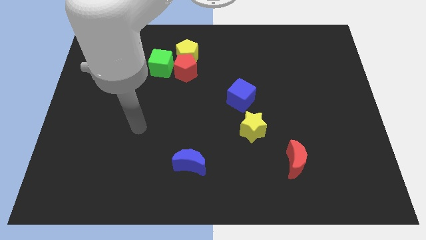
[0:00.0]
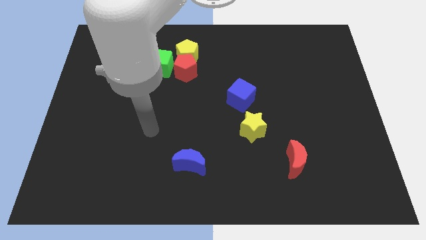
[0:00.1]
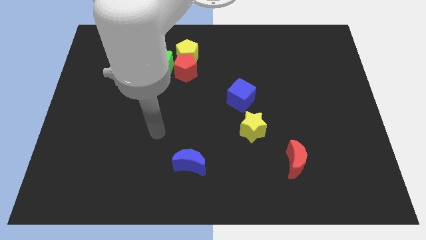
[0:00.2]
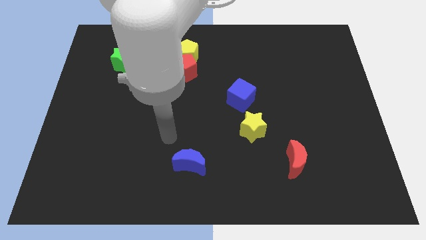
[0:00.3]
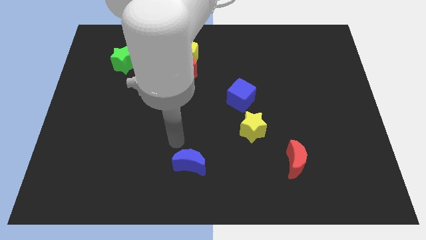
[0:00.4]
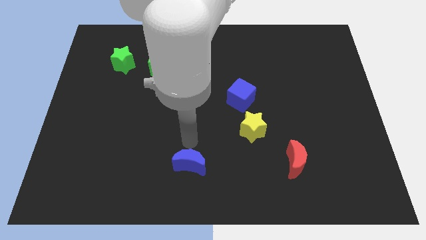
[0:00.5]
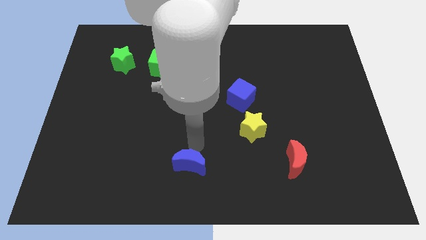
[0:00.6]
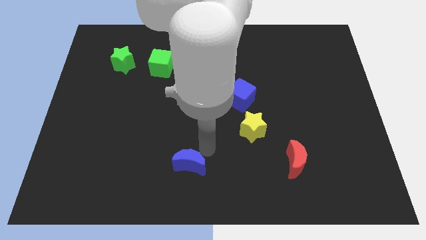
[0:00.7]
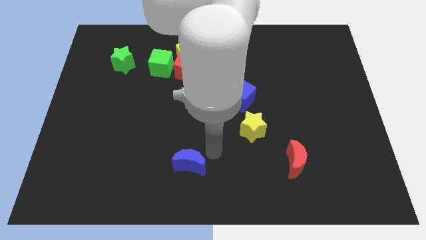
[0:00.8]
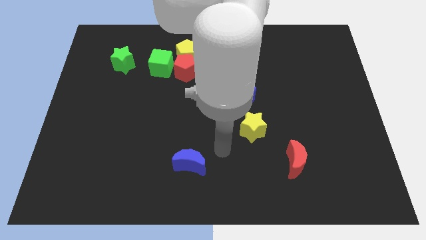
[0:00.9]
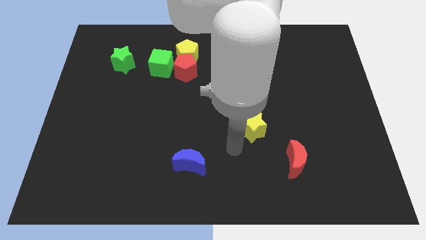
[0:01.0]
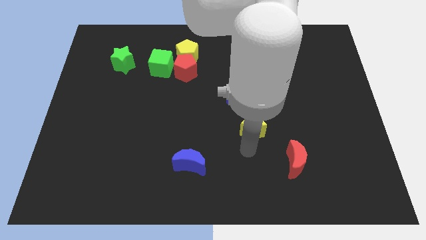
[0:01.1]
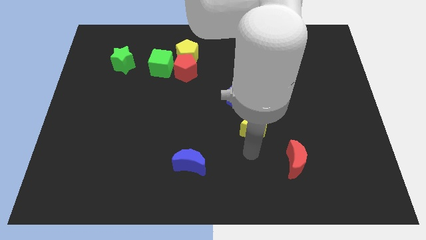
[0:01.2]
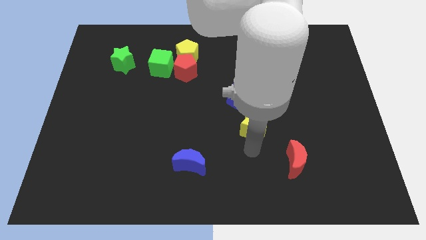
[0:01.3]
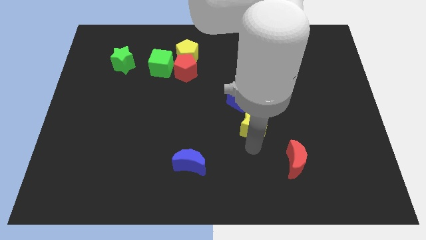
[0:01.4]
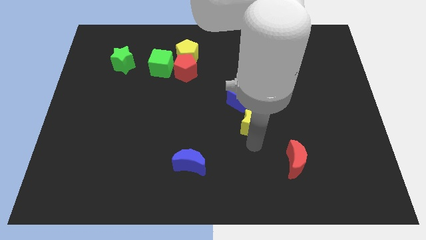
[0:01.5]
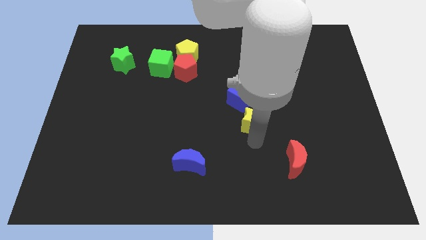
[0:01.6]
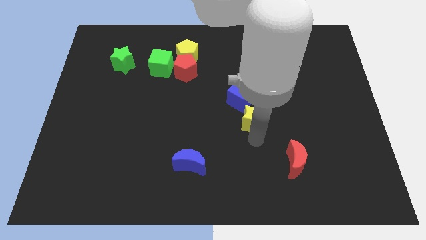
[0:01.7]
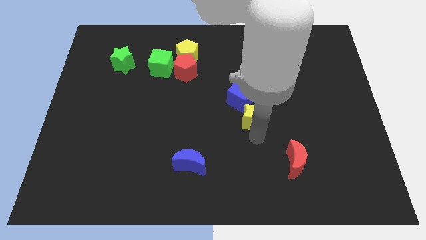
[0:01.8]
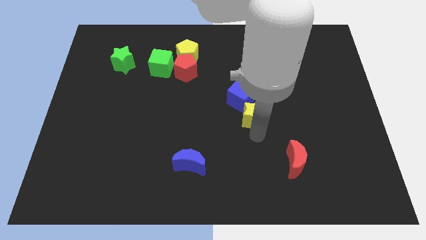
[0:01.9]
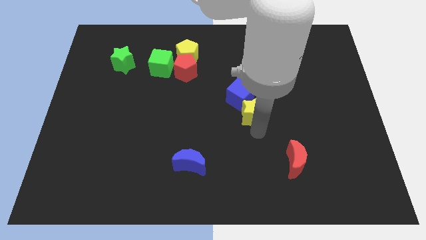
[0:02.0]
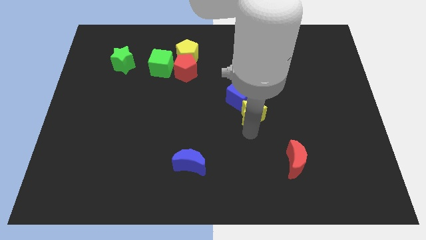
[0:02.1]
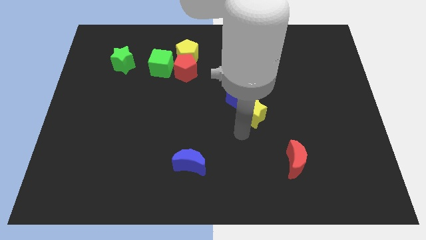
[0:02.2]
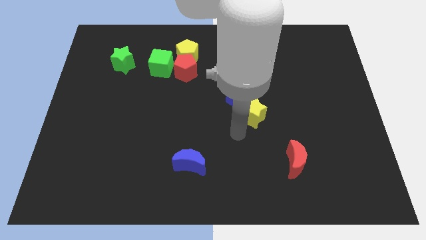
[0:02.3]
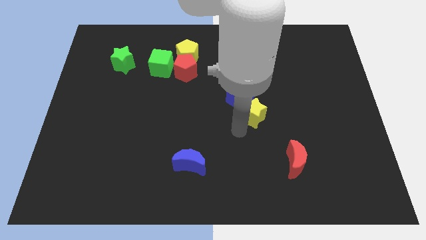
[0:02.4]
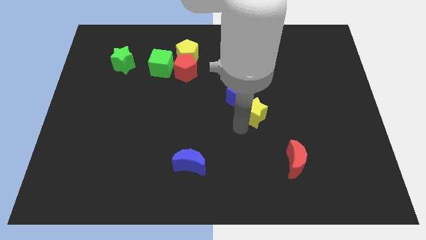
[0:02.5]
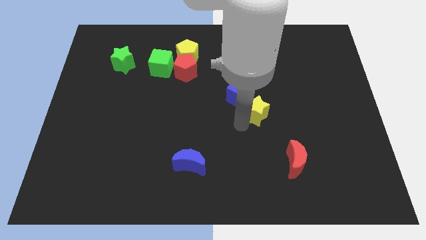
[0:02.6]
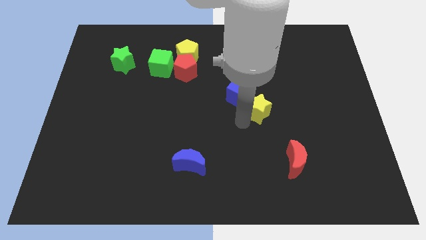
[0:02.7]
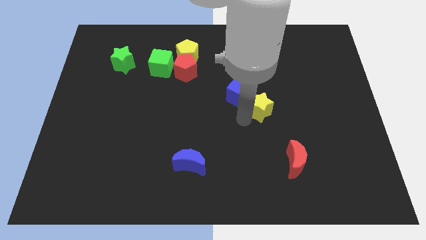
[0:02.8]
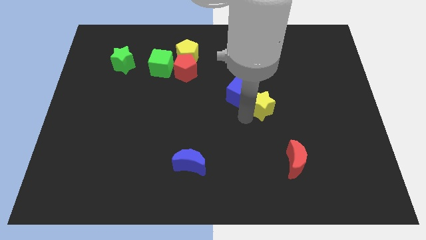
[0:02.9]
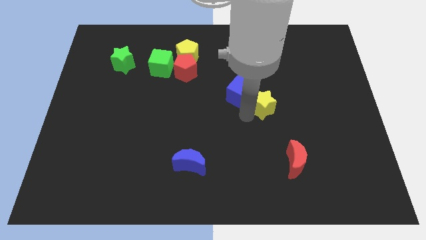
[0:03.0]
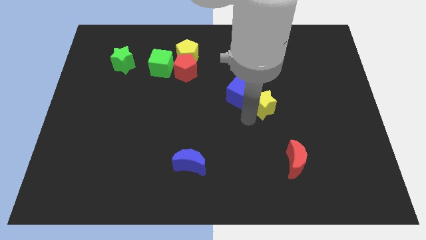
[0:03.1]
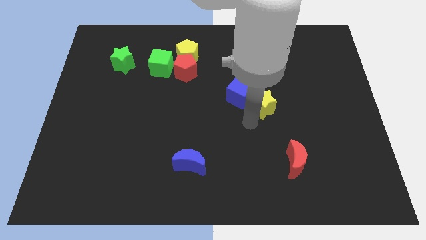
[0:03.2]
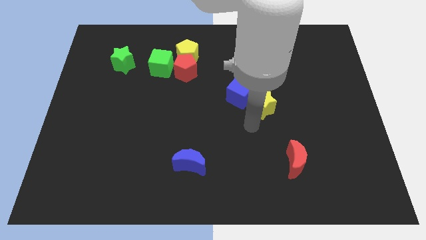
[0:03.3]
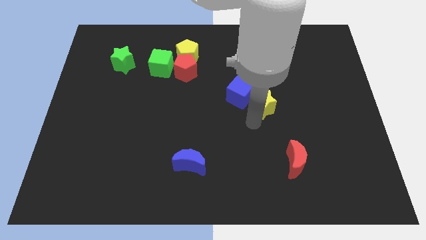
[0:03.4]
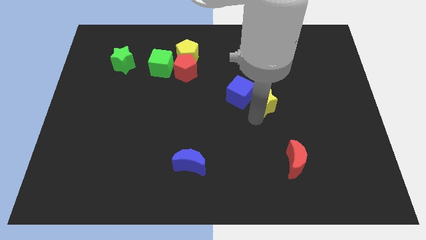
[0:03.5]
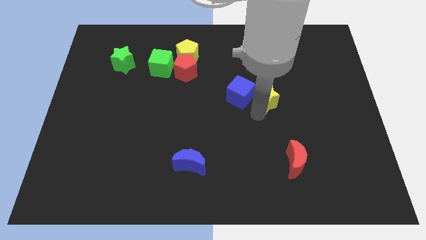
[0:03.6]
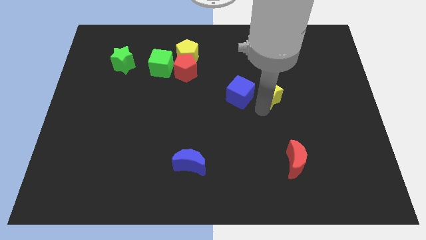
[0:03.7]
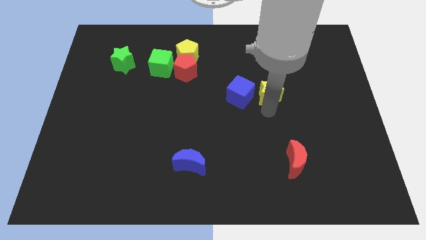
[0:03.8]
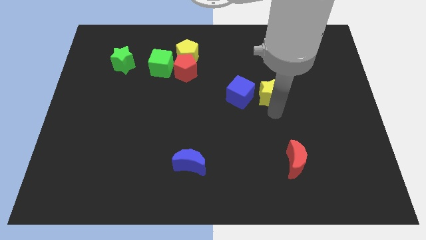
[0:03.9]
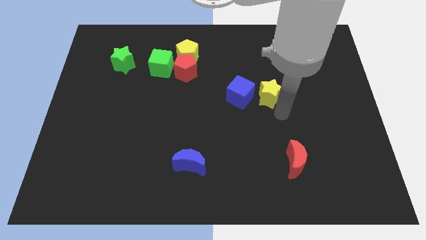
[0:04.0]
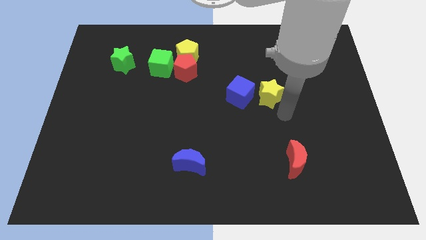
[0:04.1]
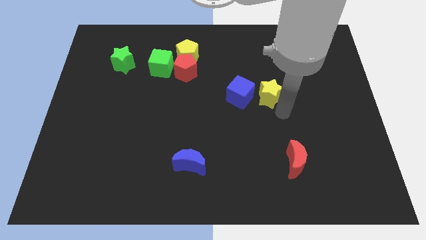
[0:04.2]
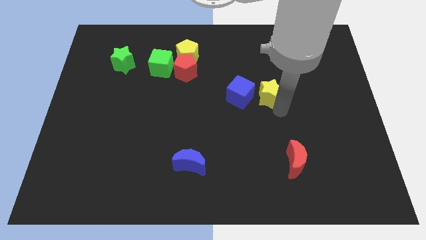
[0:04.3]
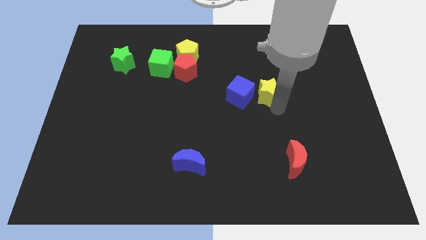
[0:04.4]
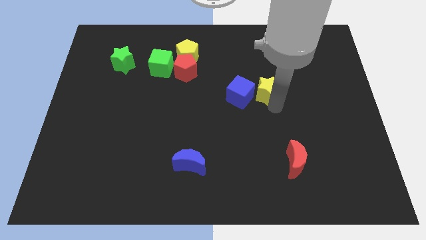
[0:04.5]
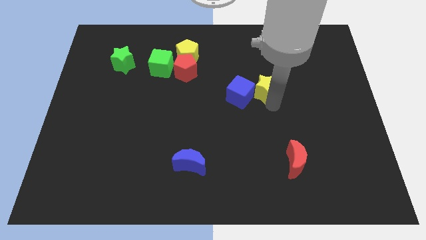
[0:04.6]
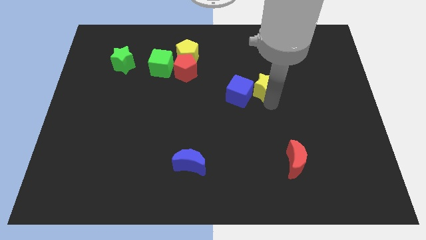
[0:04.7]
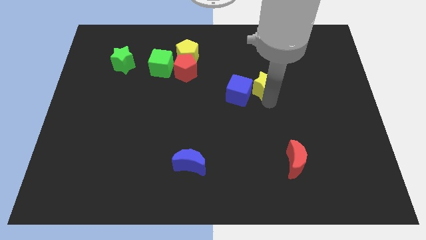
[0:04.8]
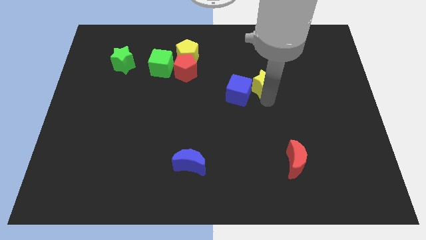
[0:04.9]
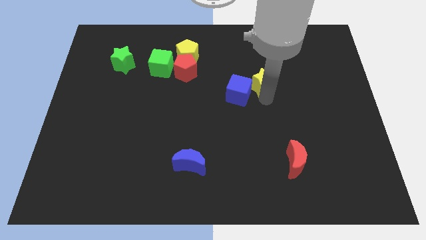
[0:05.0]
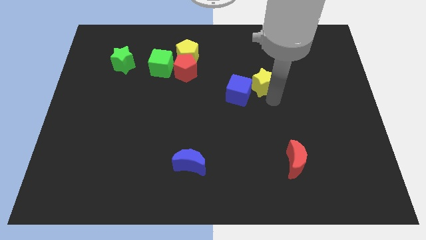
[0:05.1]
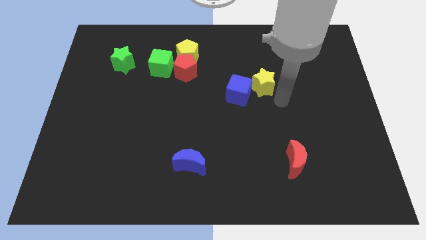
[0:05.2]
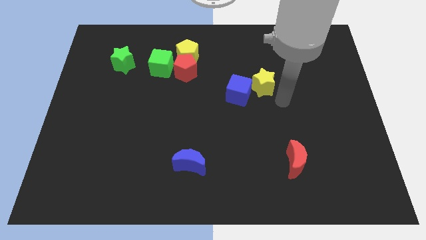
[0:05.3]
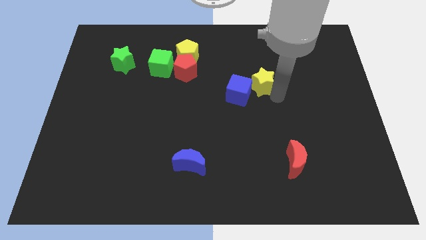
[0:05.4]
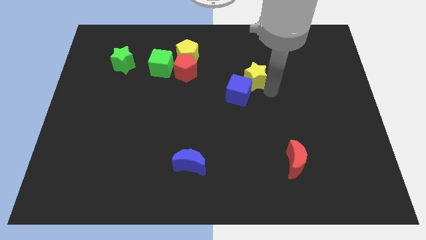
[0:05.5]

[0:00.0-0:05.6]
slide the yellow star to the top side of the blue cube

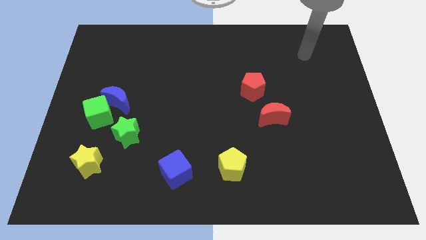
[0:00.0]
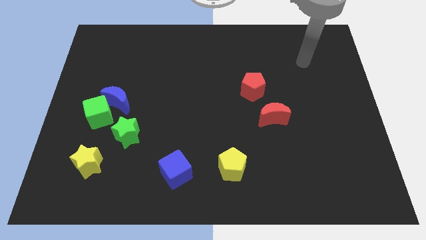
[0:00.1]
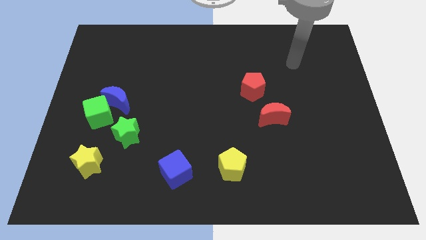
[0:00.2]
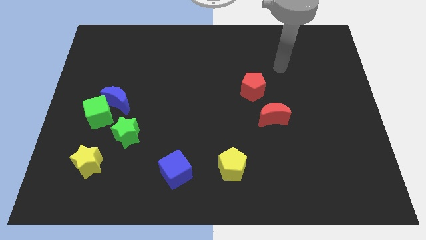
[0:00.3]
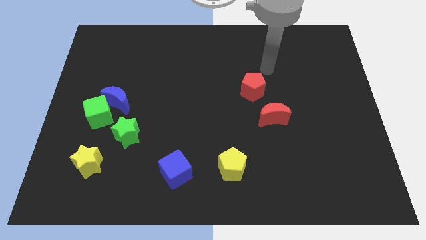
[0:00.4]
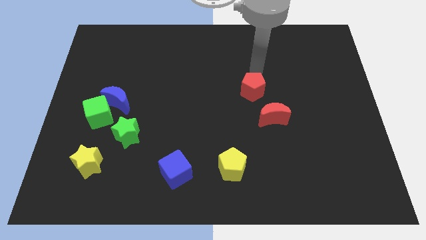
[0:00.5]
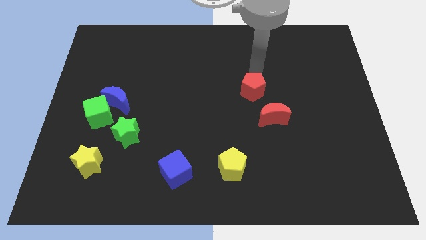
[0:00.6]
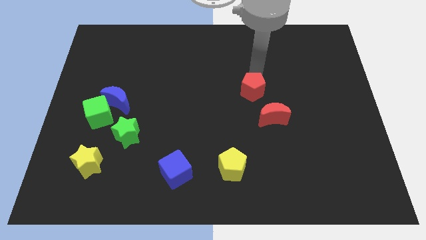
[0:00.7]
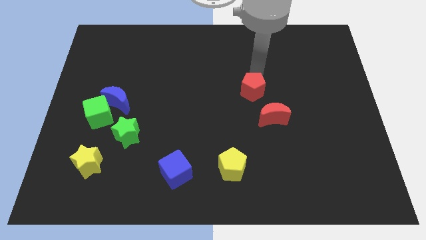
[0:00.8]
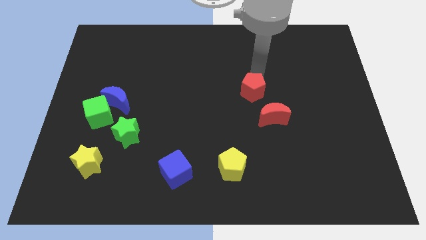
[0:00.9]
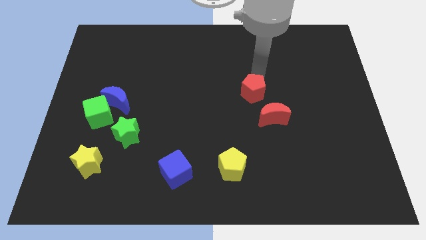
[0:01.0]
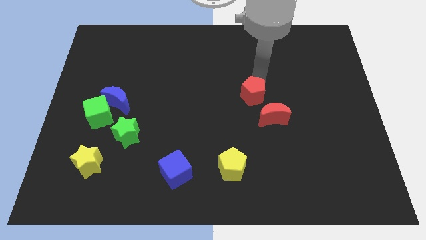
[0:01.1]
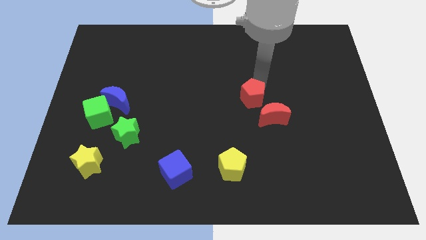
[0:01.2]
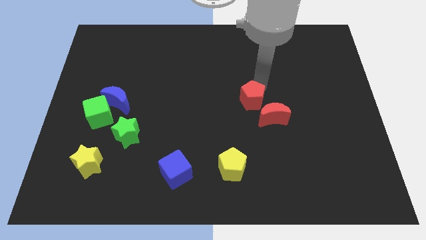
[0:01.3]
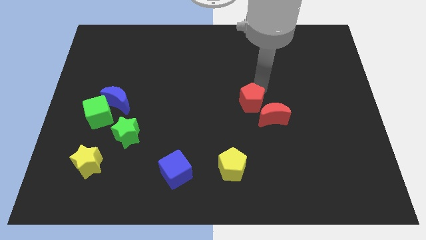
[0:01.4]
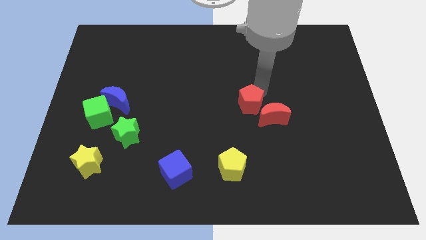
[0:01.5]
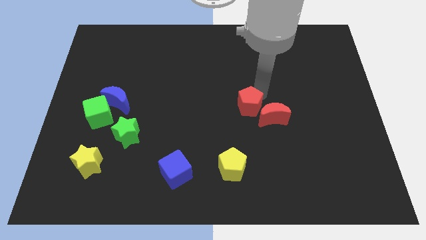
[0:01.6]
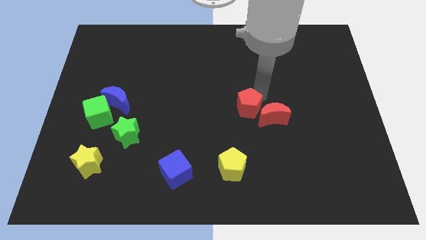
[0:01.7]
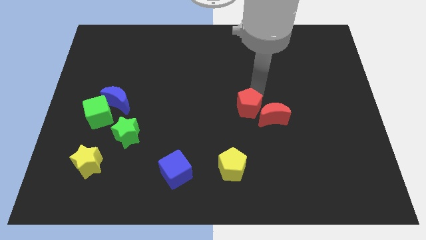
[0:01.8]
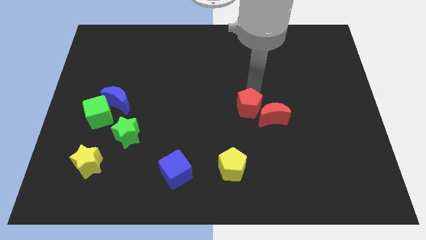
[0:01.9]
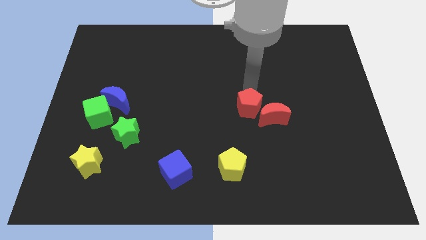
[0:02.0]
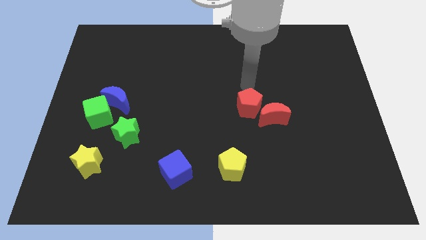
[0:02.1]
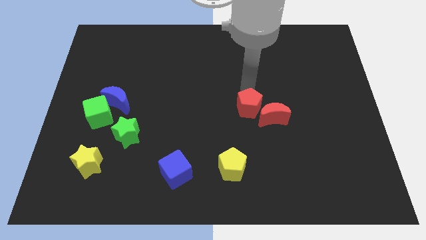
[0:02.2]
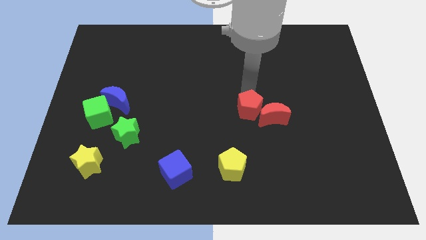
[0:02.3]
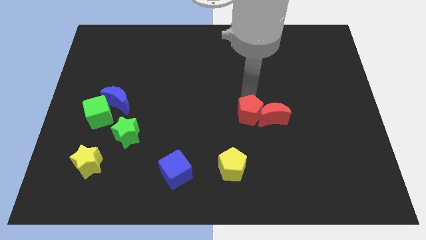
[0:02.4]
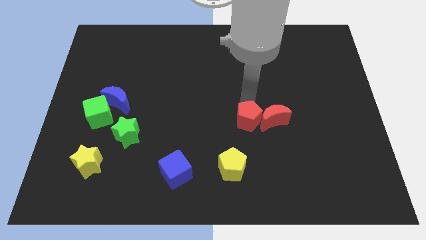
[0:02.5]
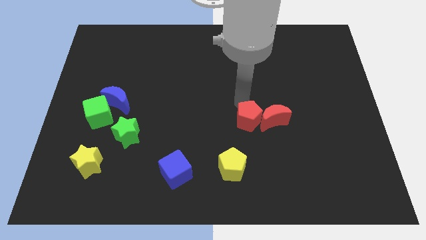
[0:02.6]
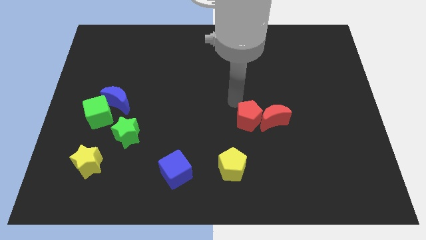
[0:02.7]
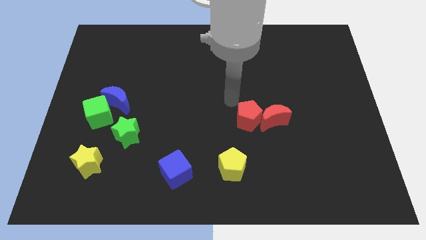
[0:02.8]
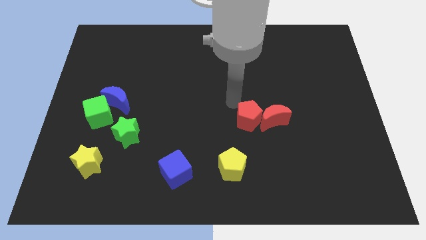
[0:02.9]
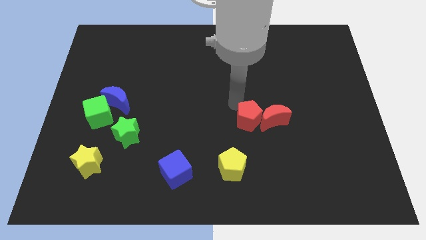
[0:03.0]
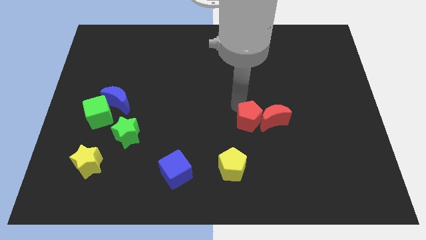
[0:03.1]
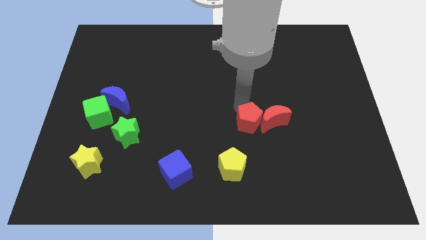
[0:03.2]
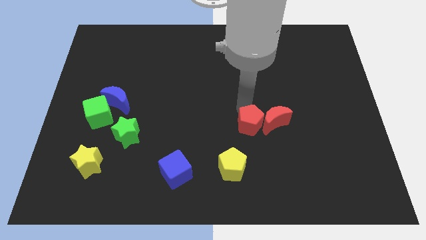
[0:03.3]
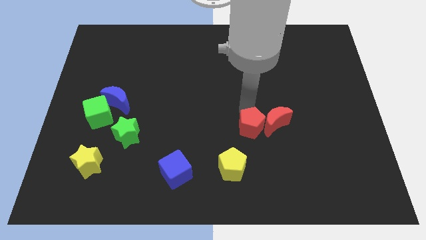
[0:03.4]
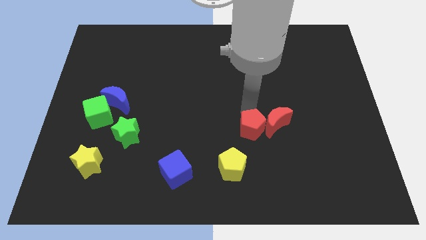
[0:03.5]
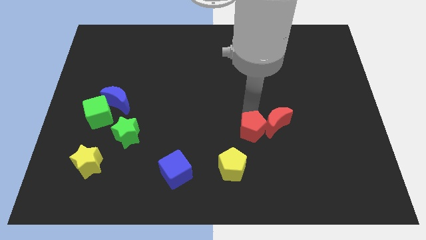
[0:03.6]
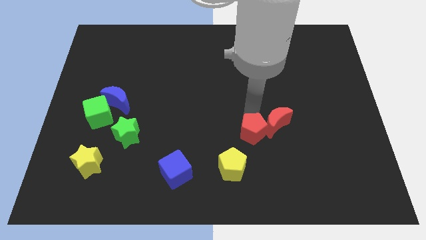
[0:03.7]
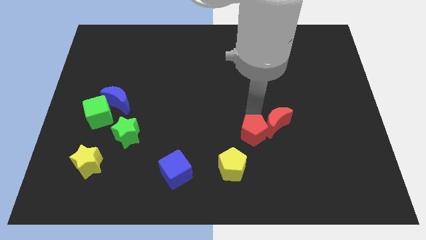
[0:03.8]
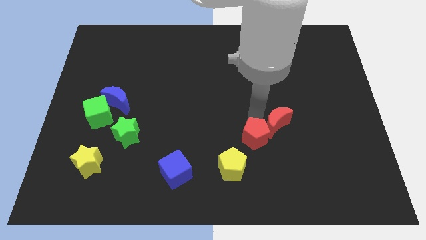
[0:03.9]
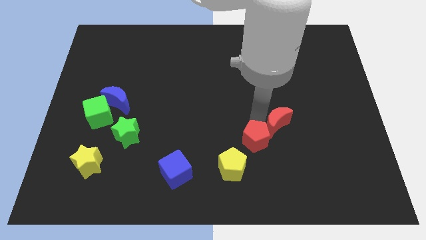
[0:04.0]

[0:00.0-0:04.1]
put the red pentagon to the bottom side of the red moon
